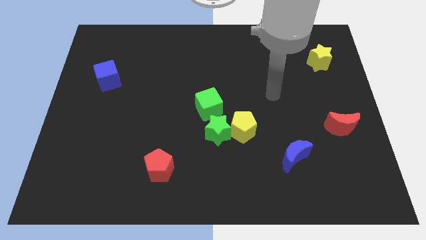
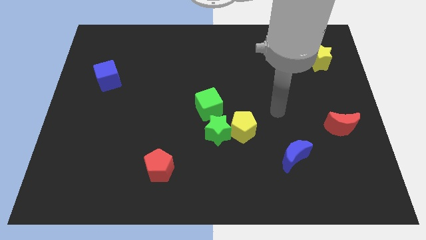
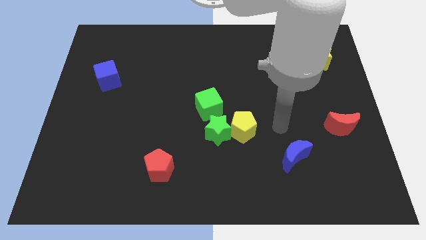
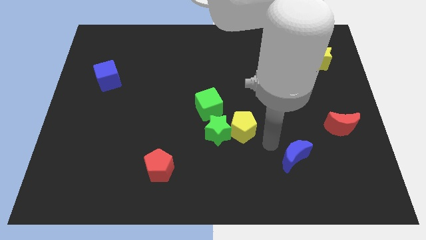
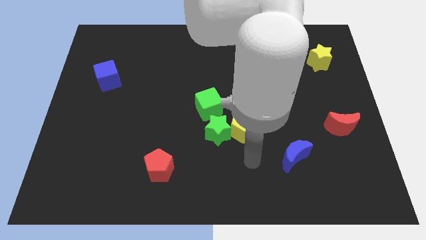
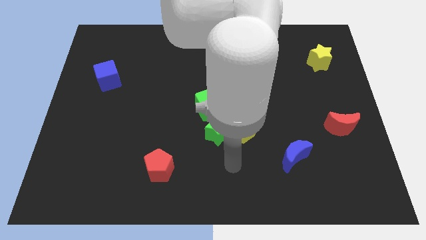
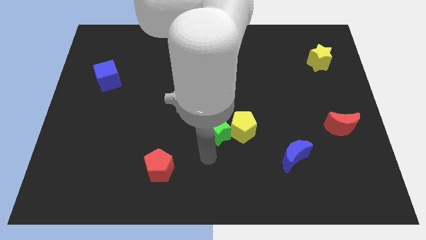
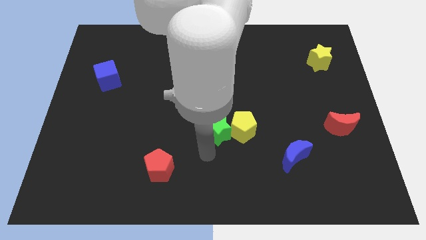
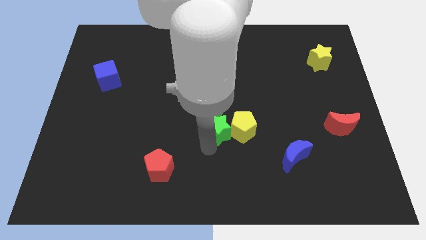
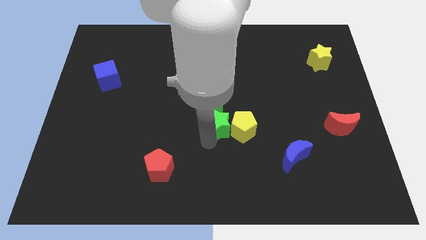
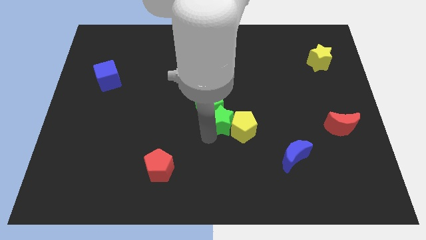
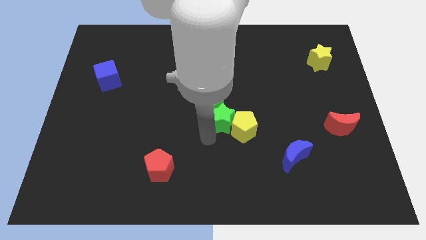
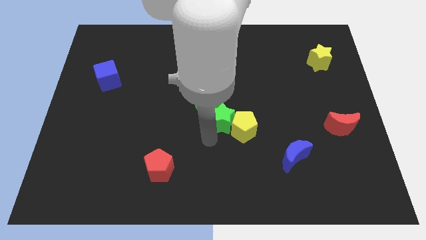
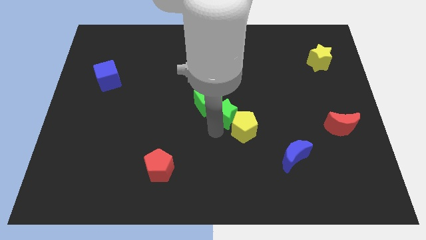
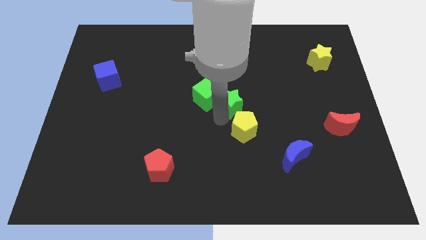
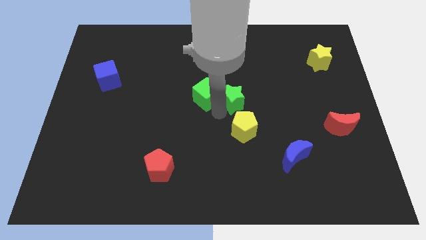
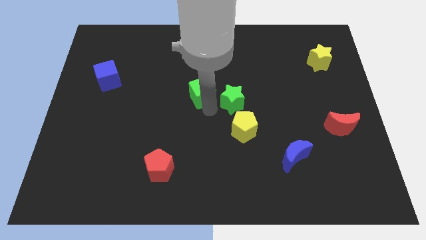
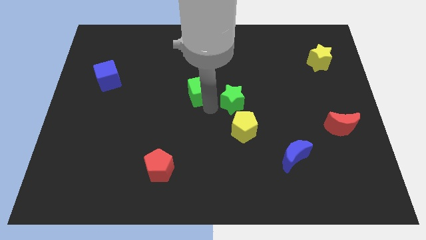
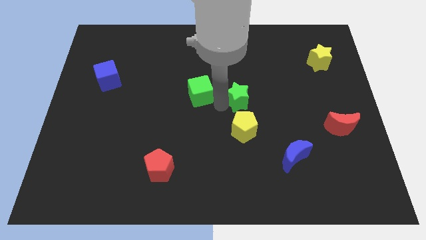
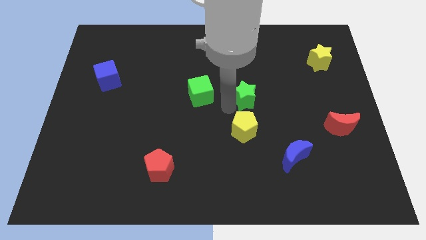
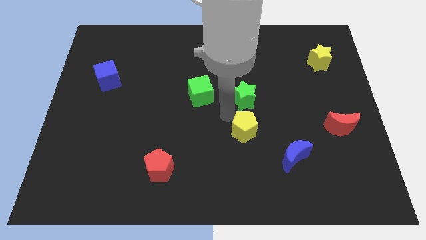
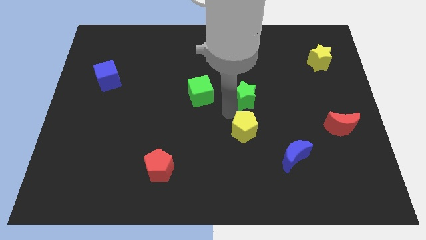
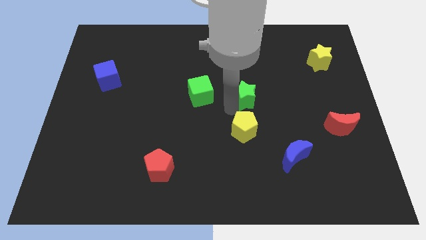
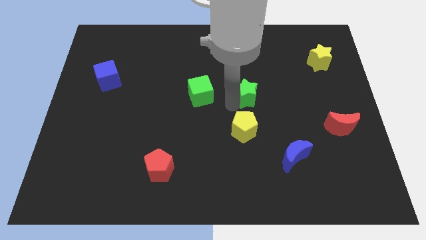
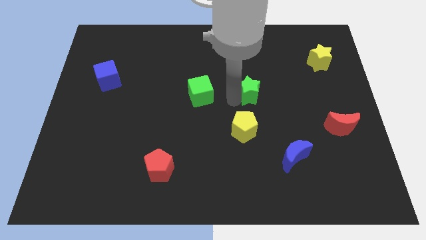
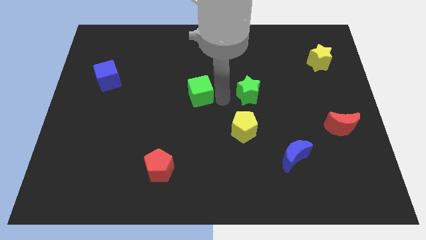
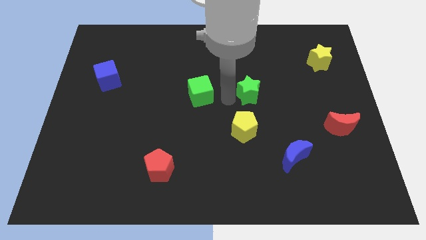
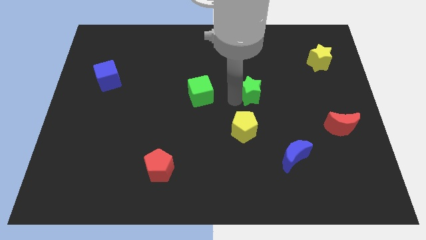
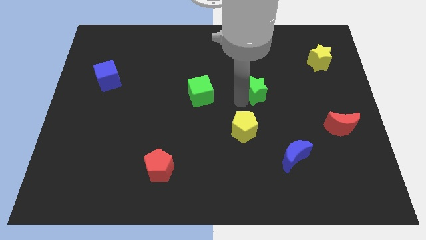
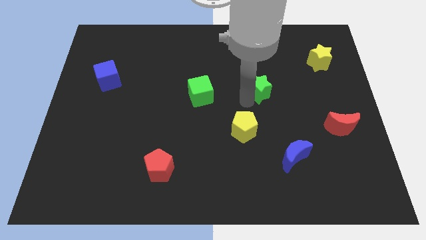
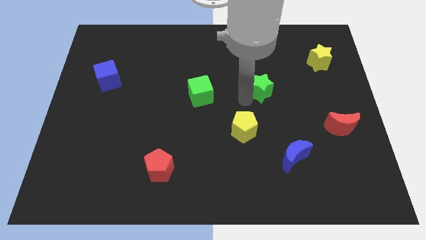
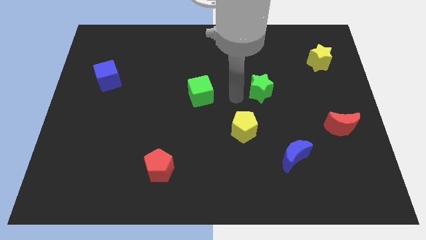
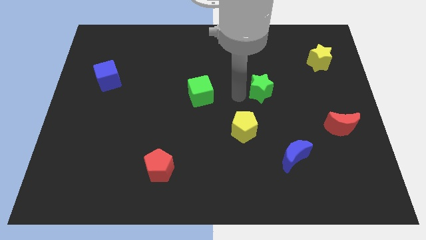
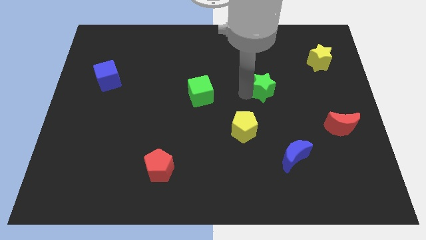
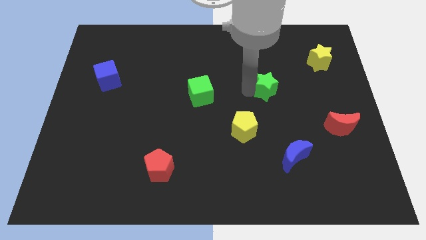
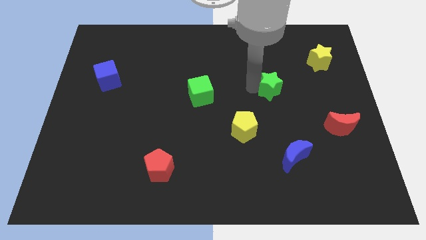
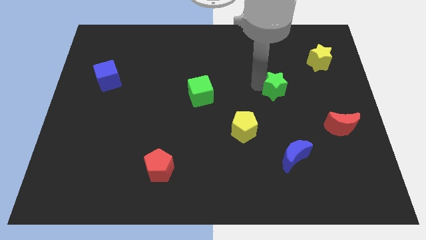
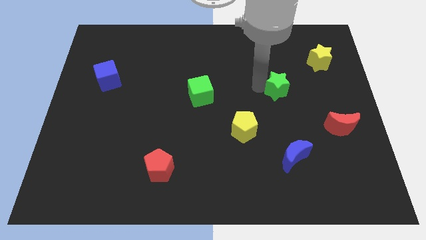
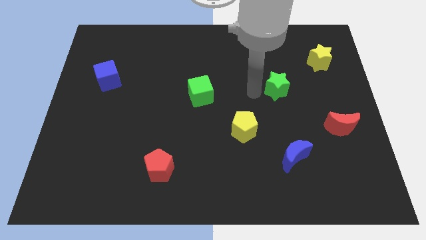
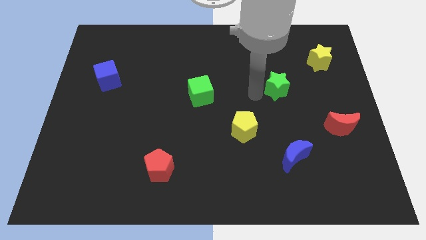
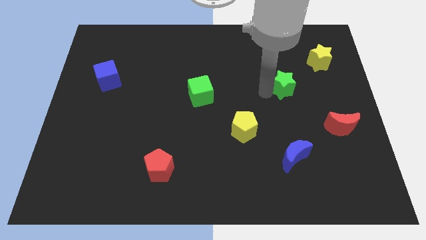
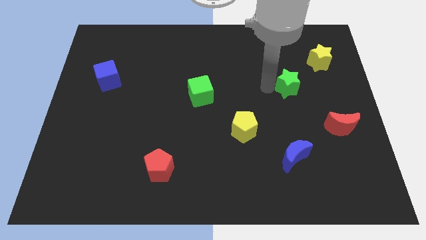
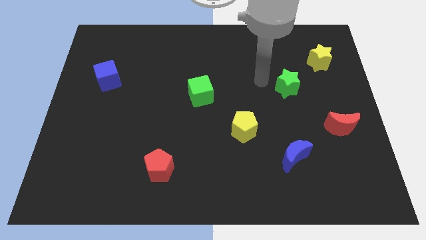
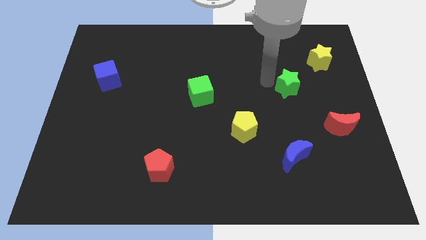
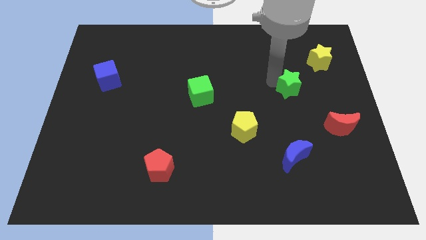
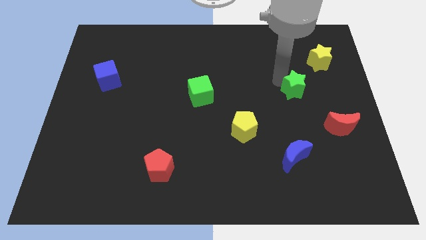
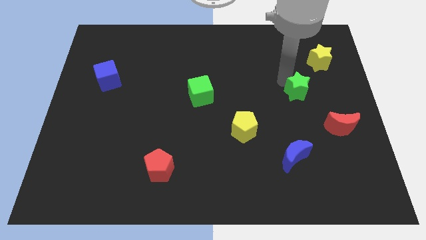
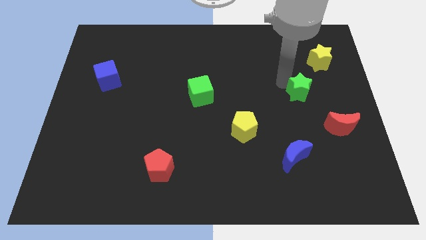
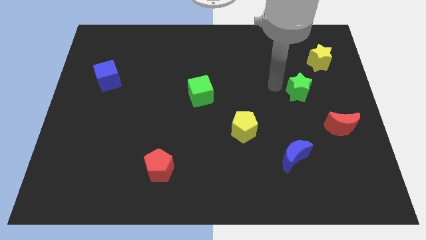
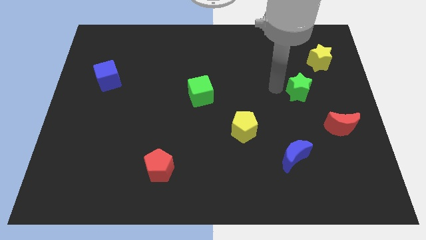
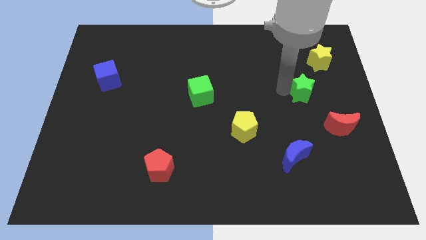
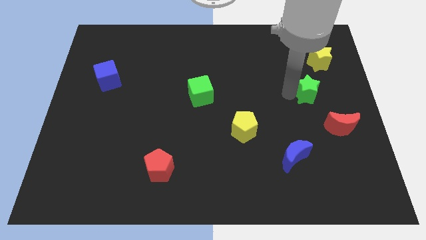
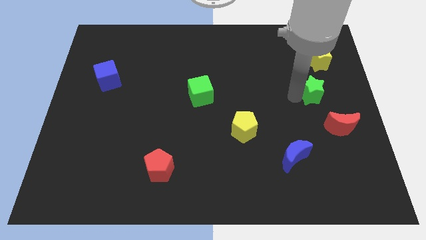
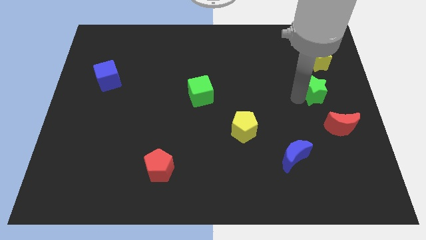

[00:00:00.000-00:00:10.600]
put the green star to the top of the red moon

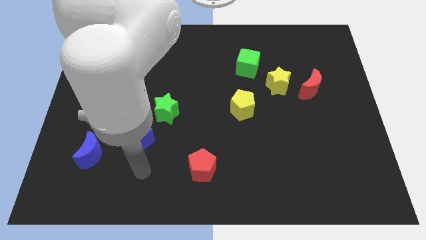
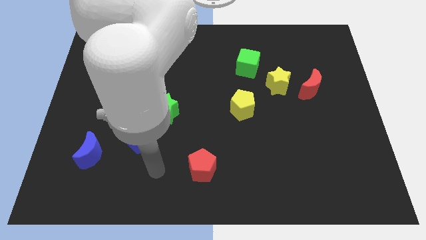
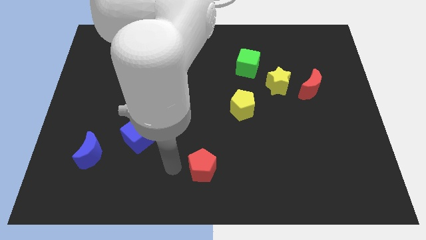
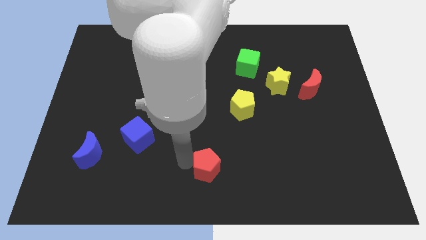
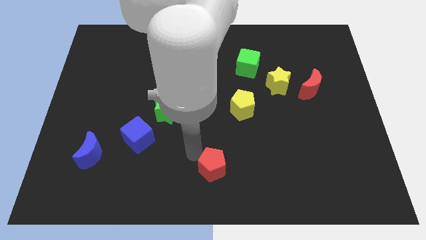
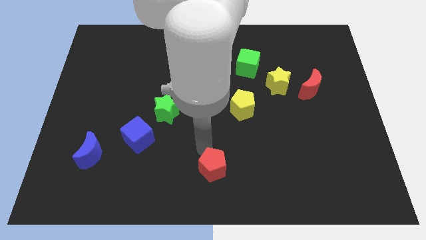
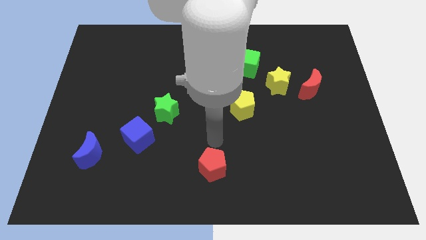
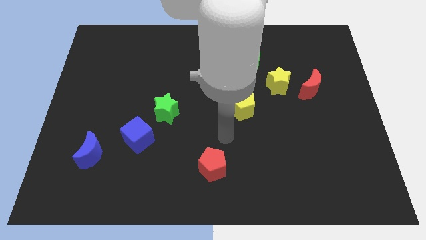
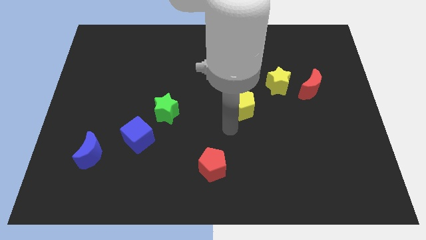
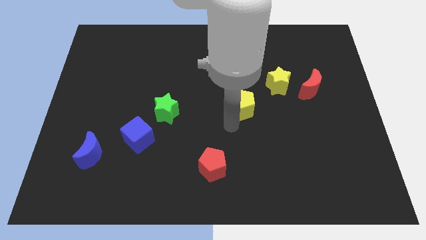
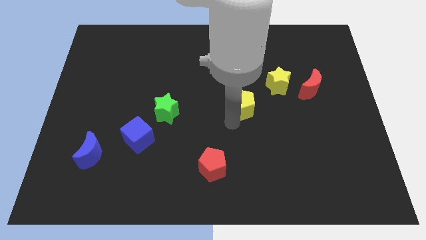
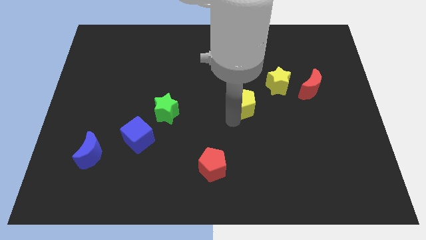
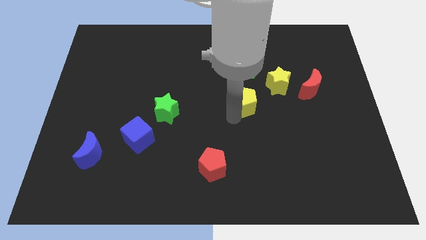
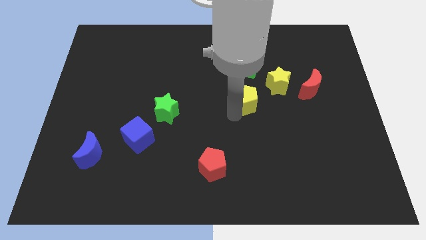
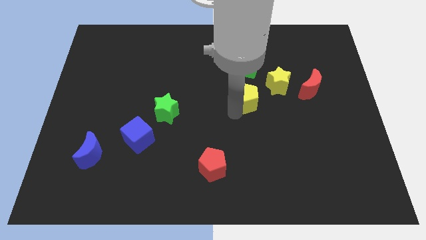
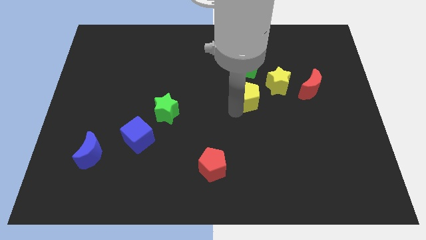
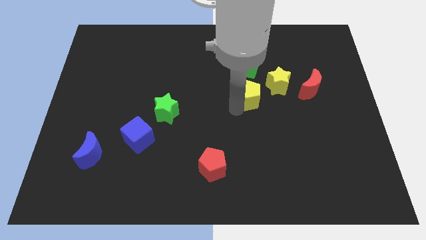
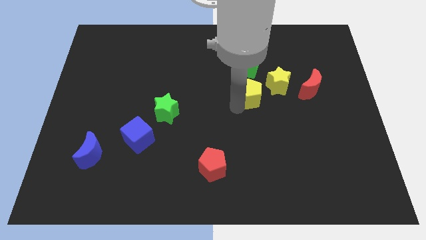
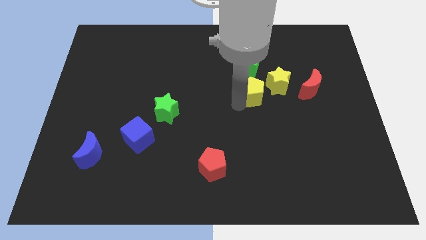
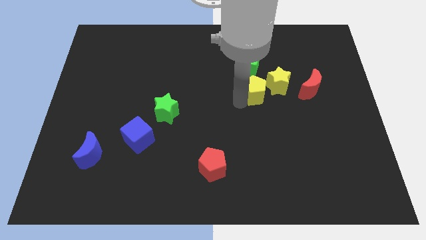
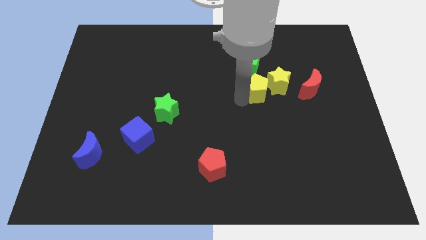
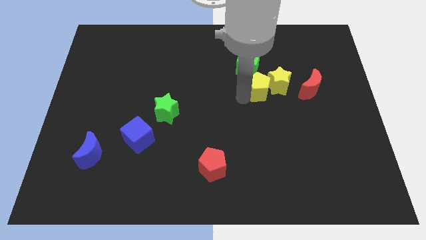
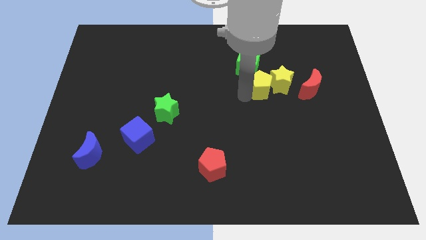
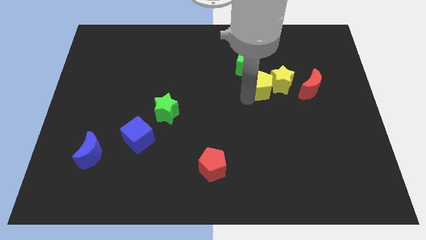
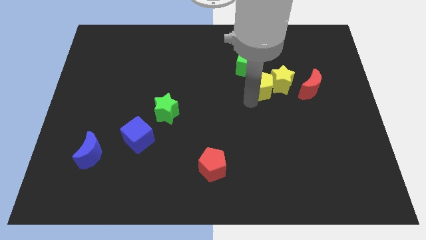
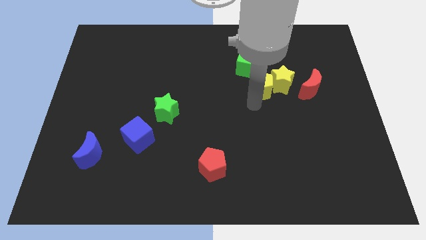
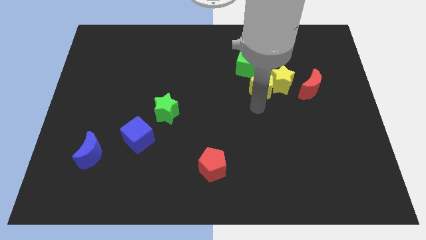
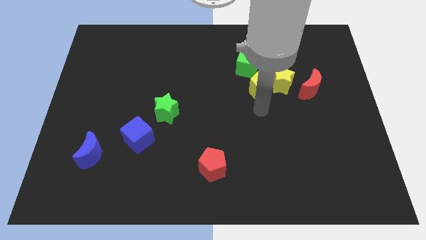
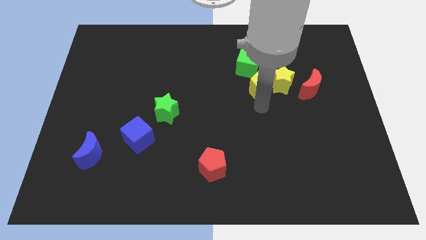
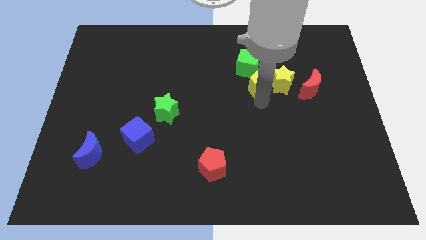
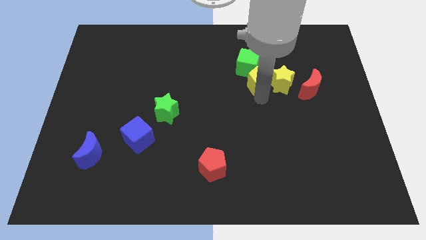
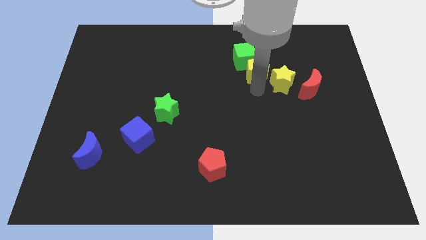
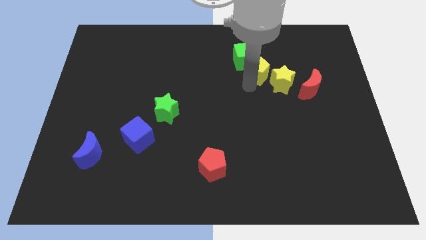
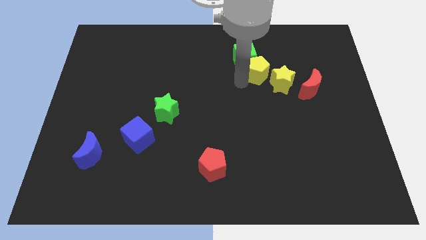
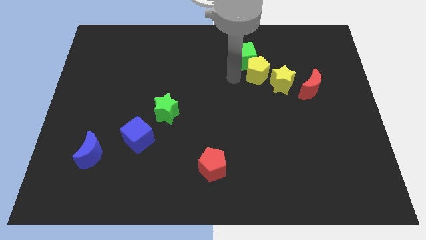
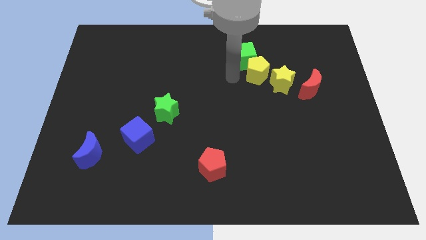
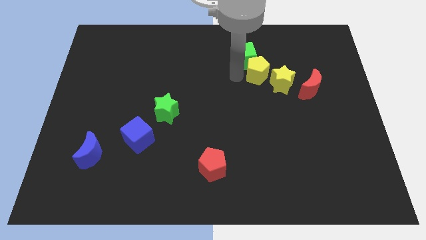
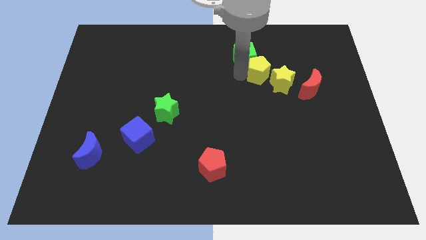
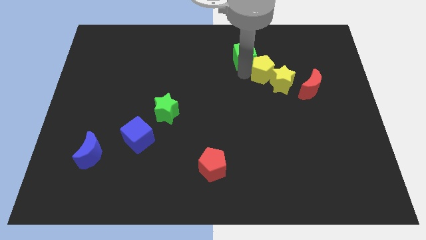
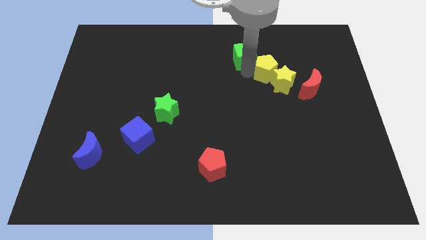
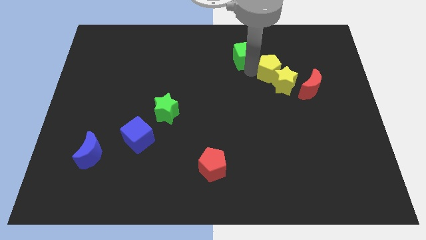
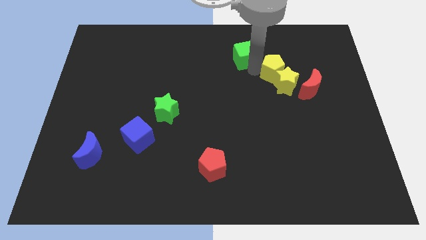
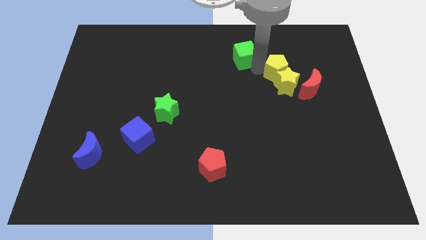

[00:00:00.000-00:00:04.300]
slide the yellow pentagon diagonally up and to the right of the yellow star
